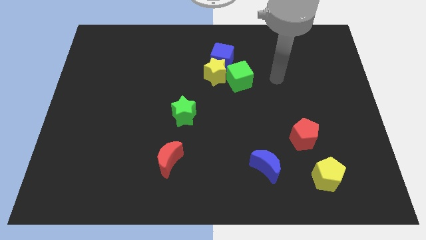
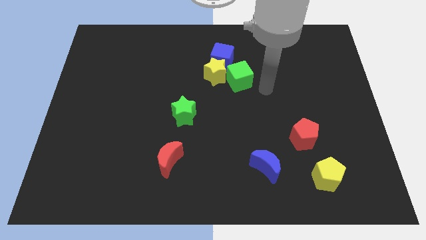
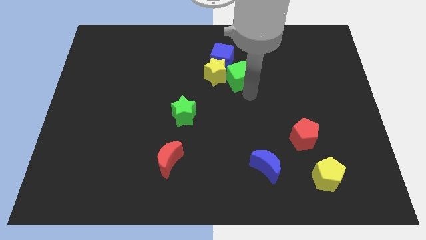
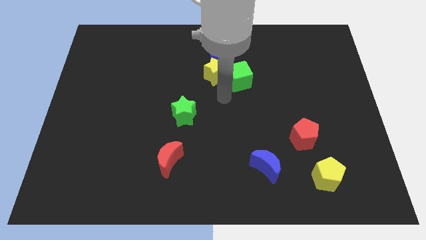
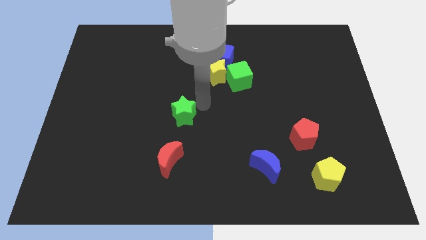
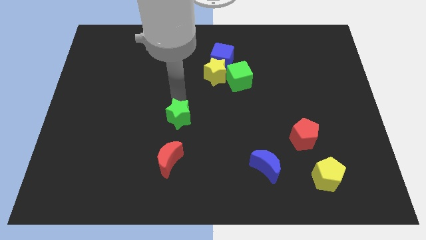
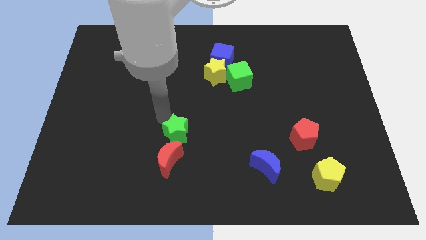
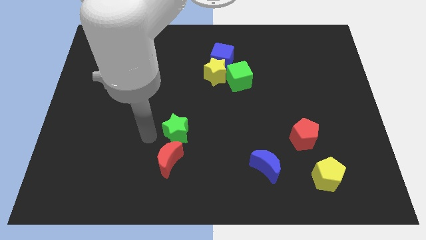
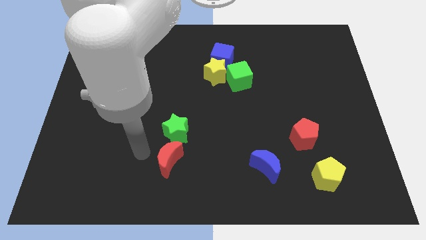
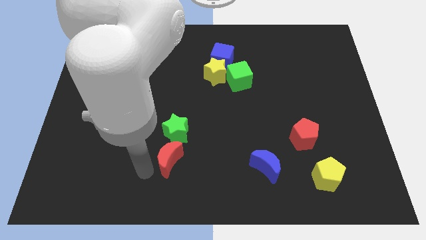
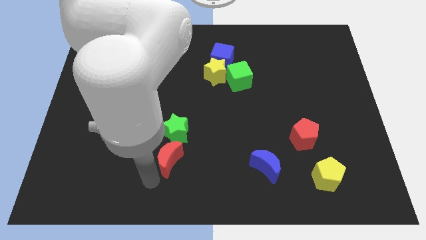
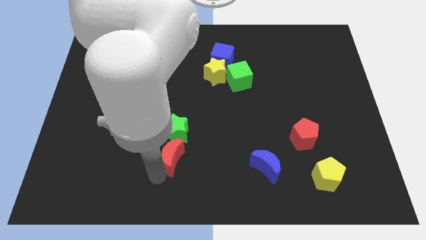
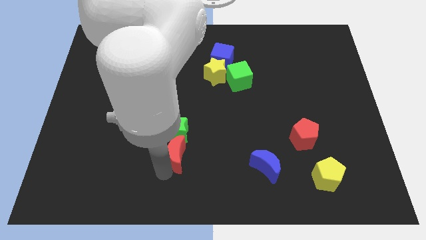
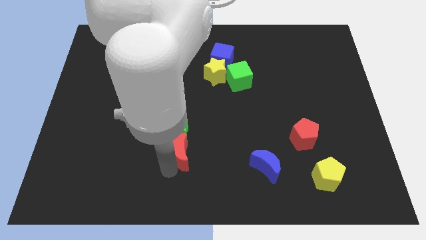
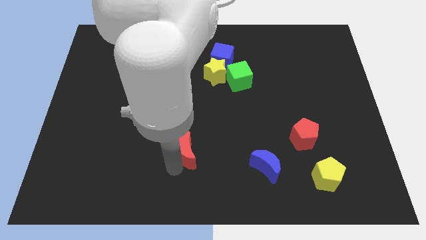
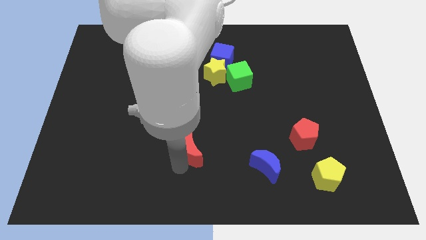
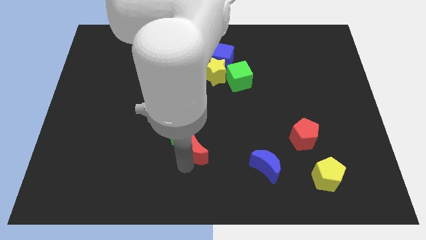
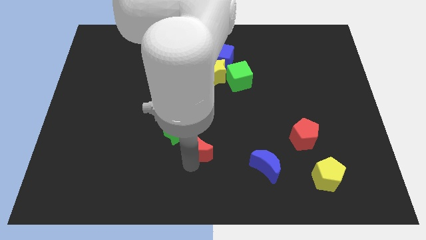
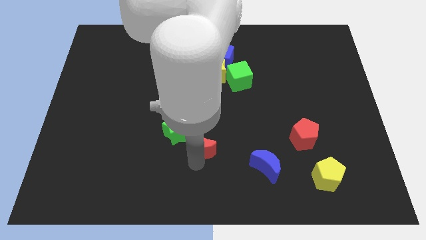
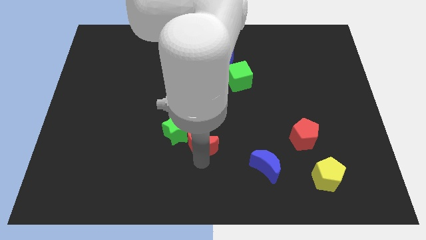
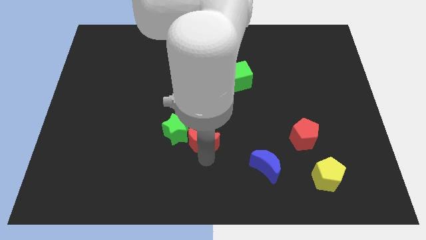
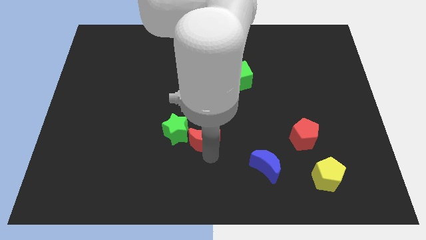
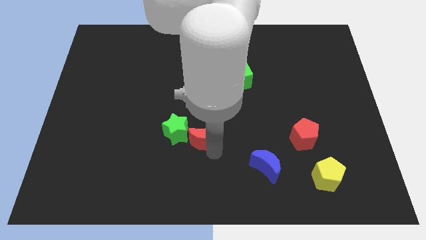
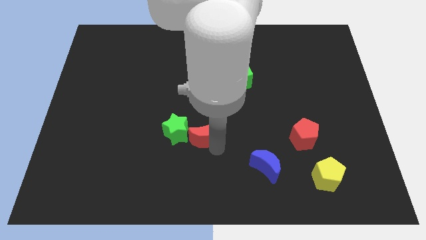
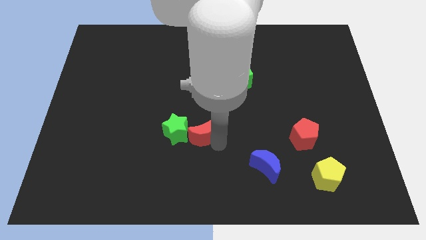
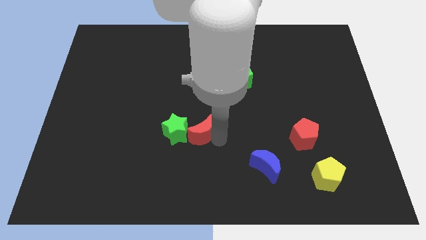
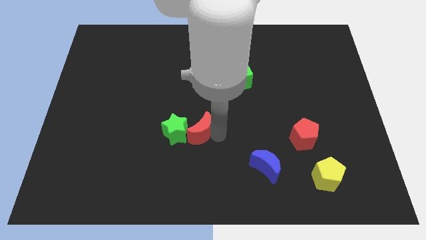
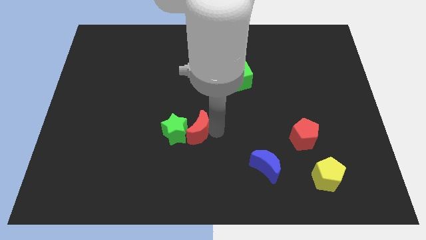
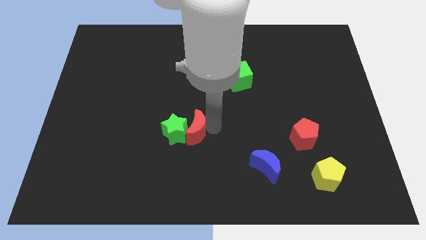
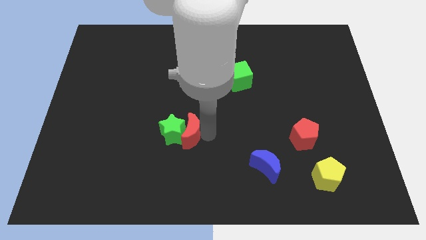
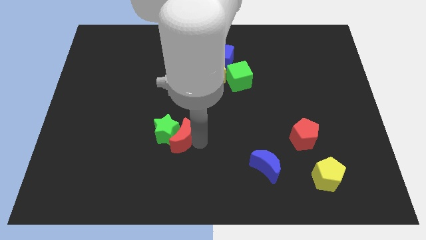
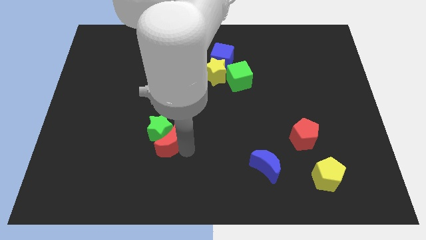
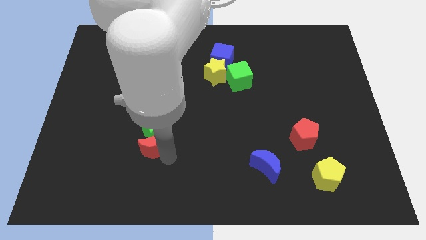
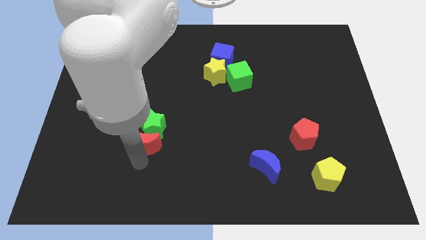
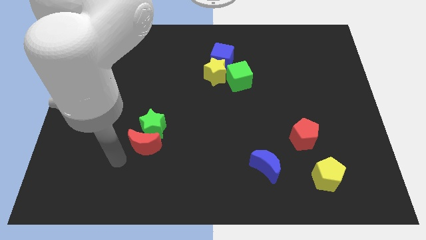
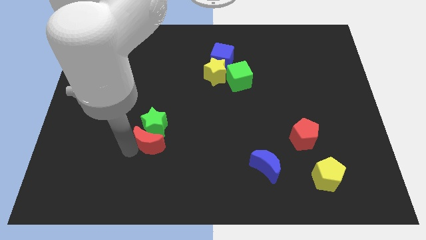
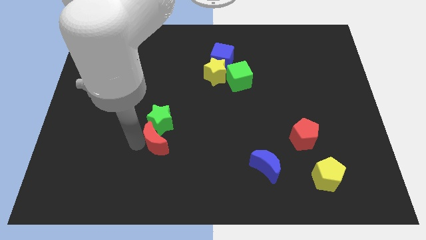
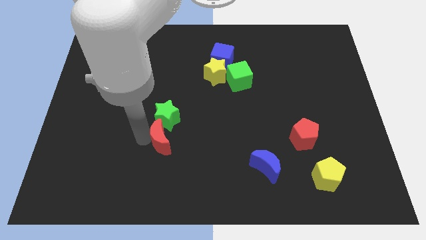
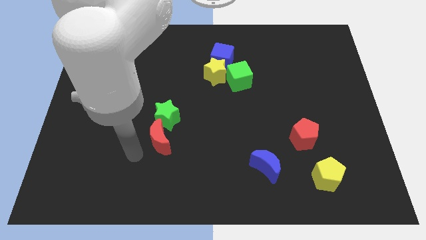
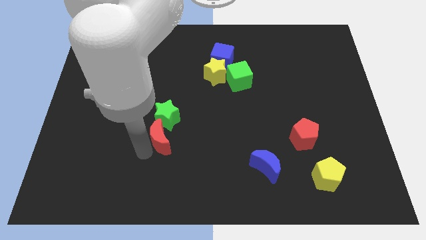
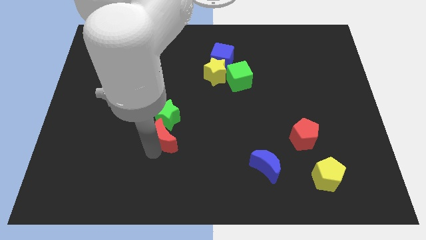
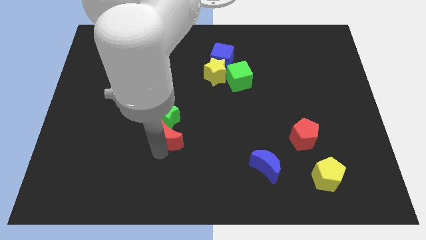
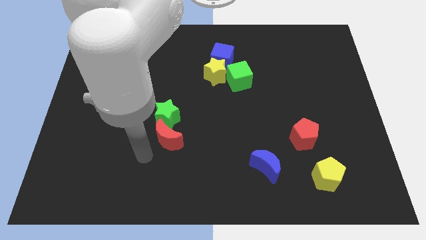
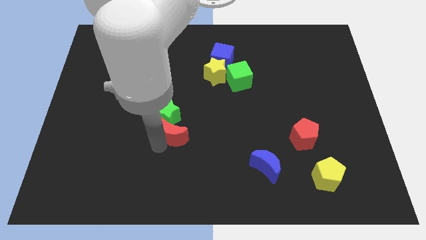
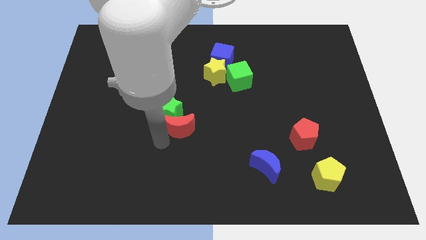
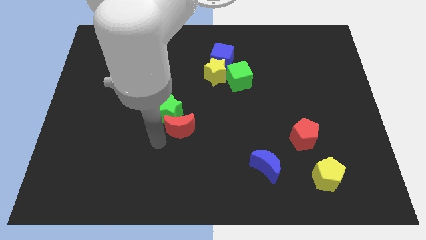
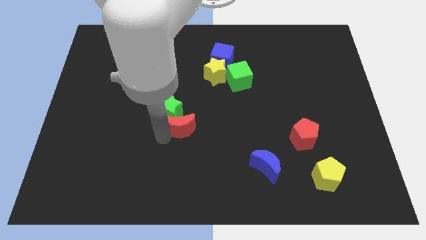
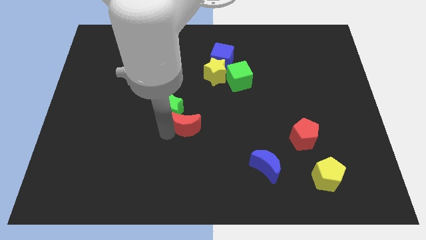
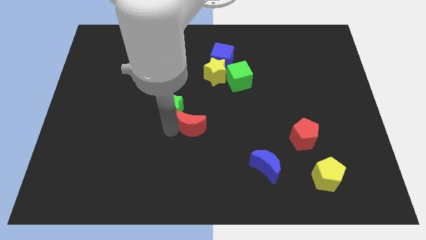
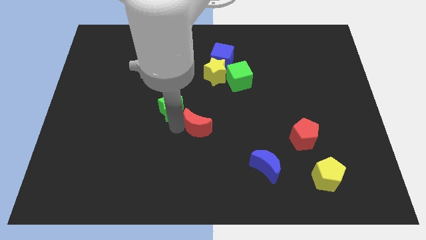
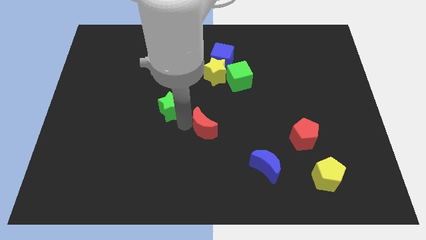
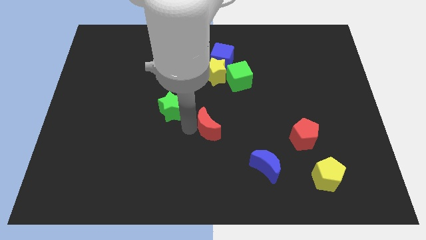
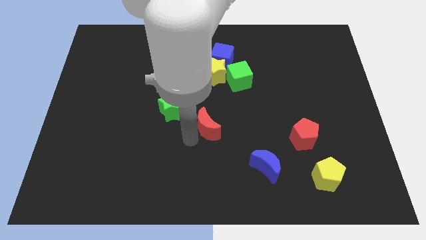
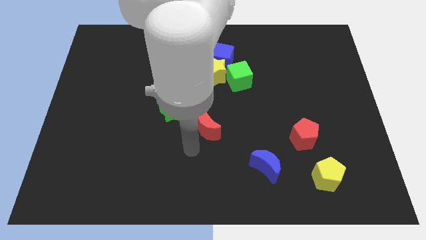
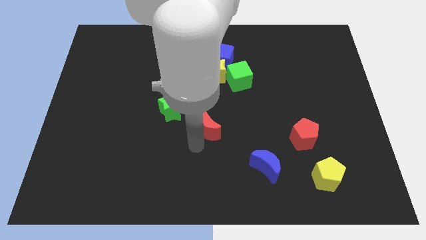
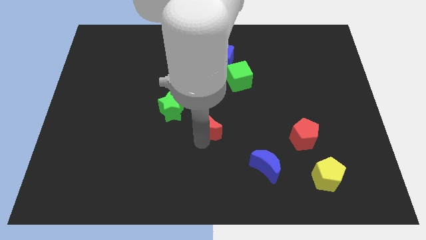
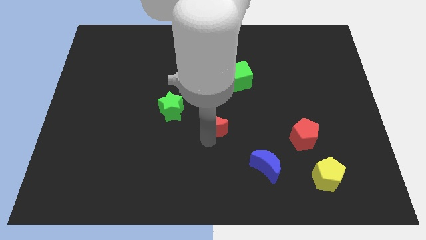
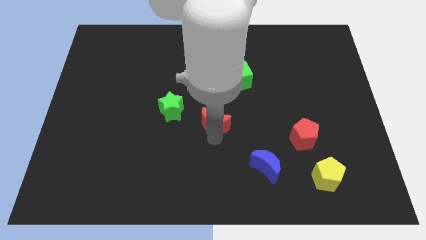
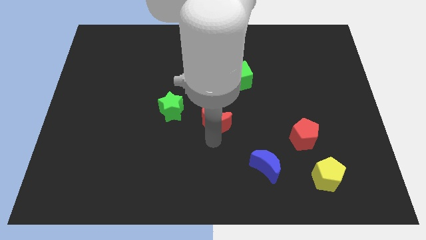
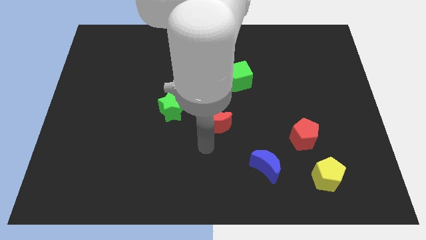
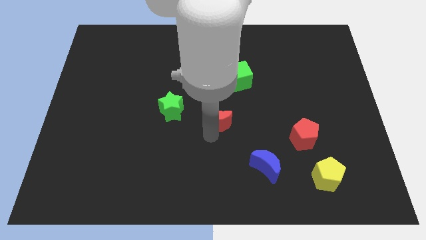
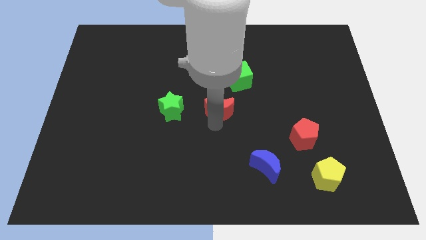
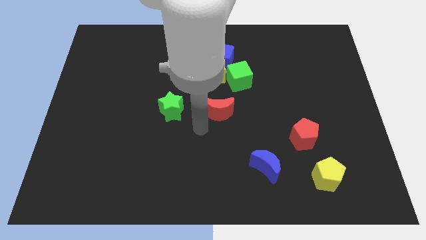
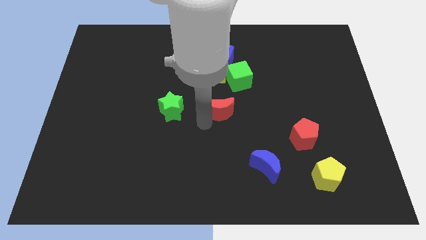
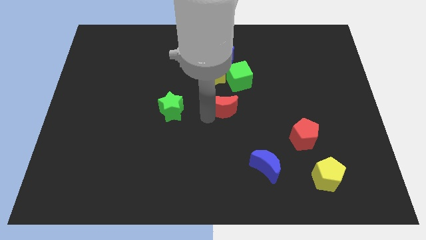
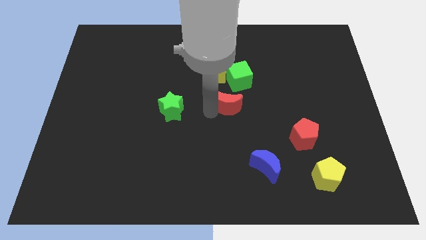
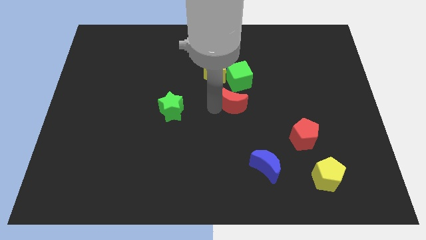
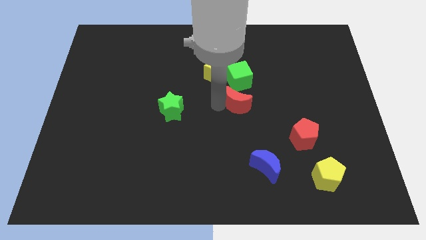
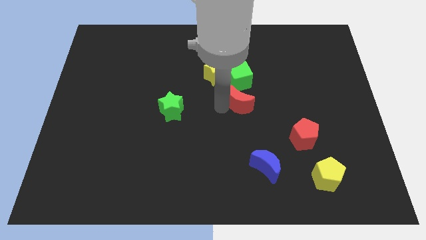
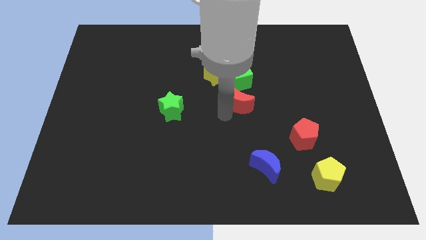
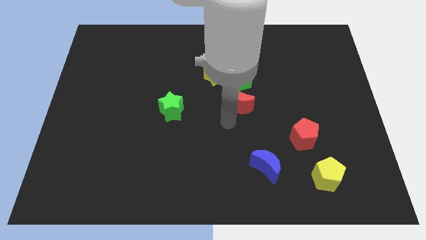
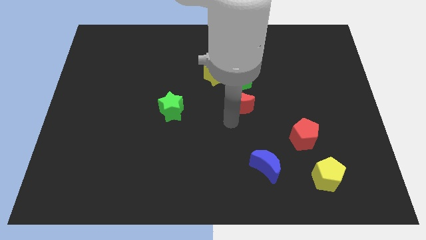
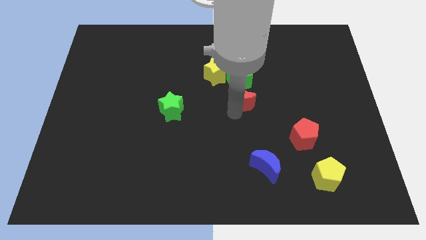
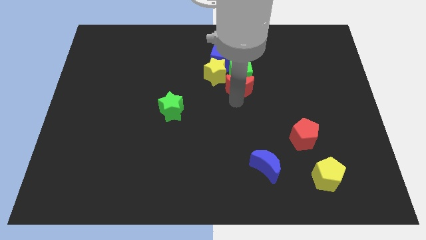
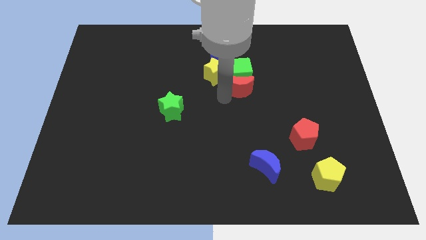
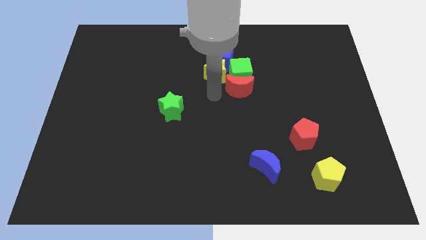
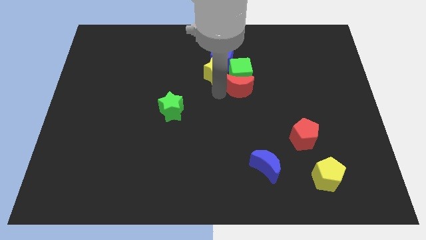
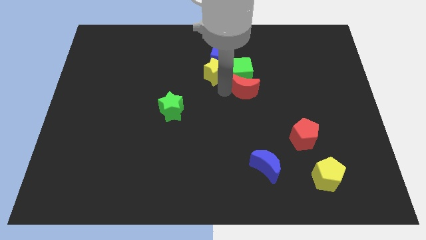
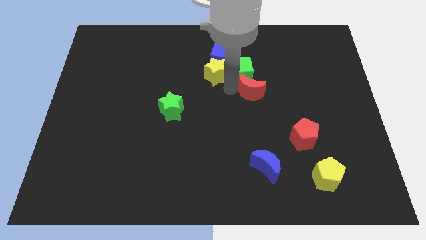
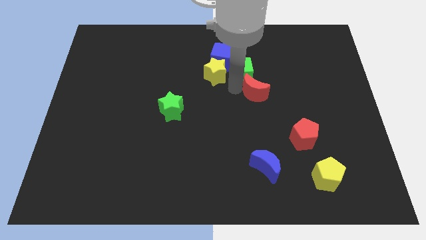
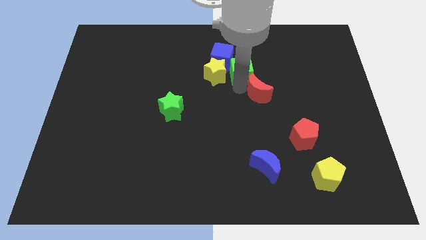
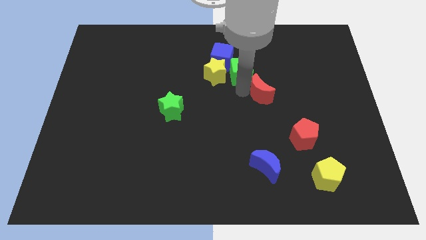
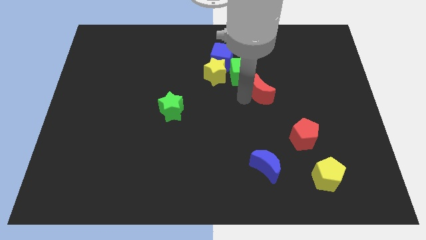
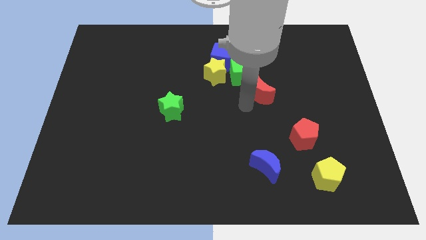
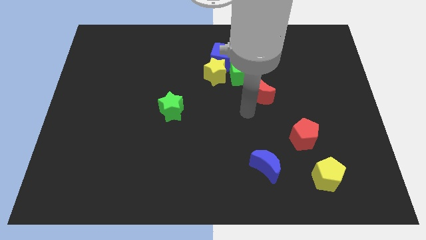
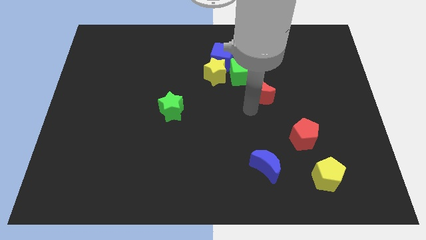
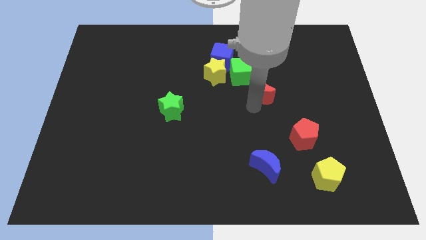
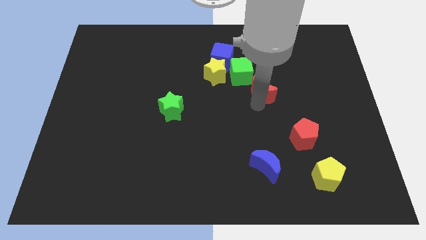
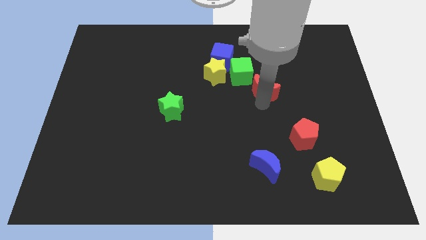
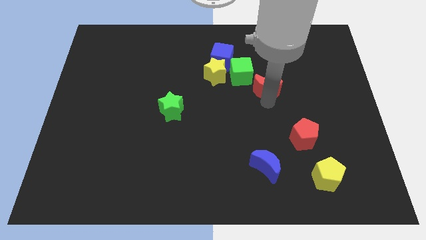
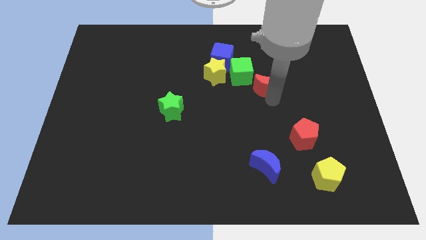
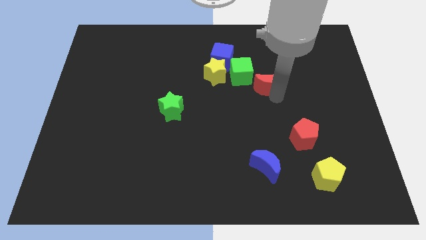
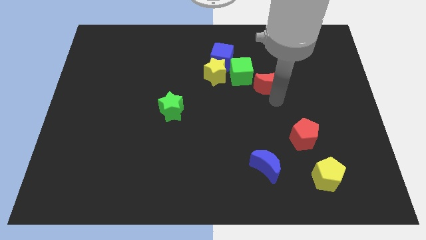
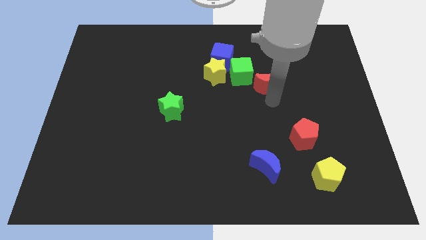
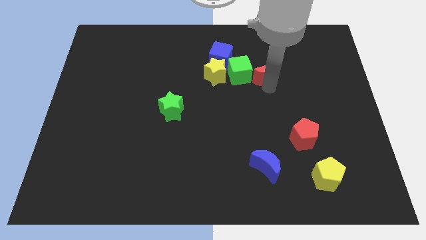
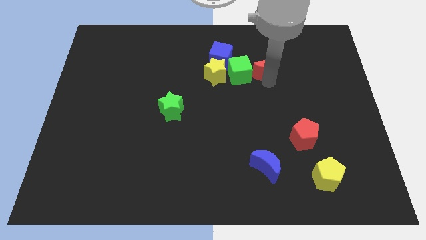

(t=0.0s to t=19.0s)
slide the red moon right of the blue cube
